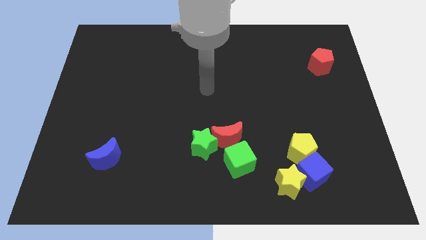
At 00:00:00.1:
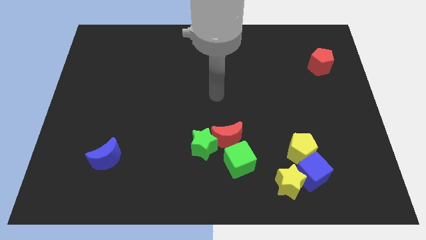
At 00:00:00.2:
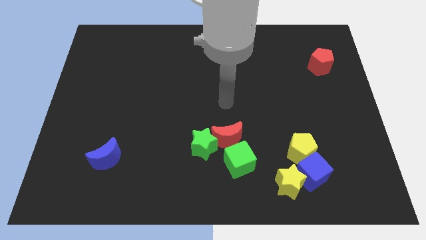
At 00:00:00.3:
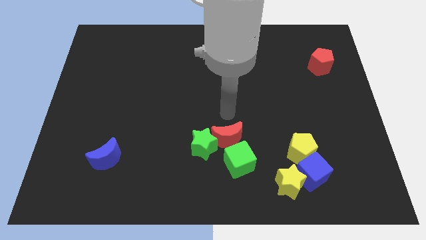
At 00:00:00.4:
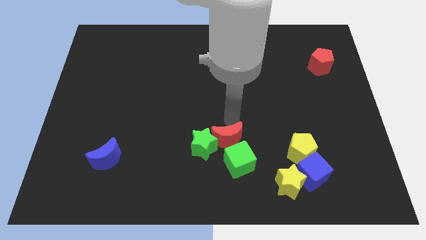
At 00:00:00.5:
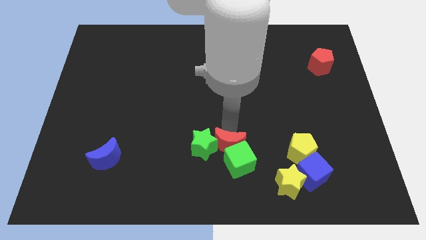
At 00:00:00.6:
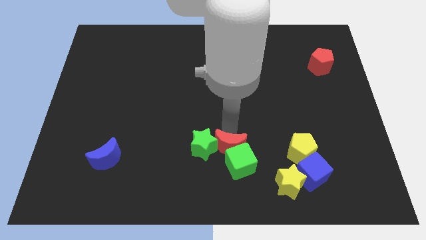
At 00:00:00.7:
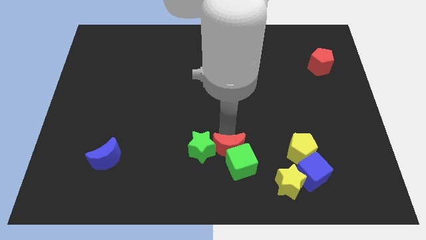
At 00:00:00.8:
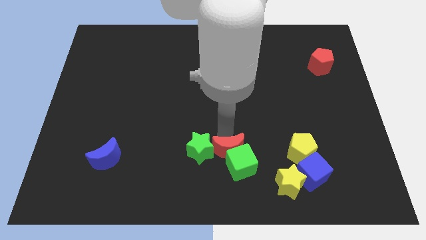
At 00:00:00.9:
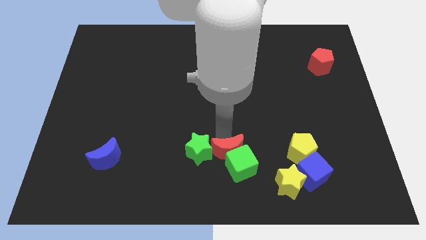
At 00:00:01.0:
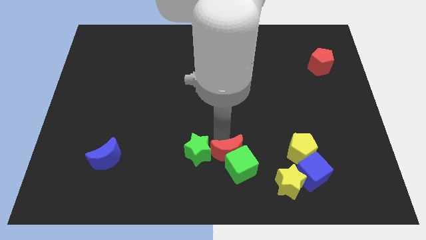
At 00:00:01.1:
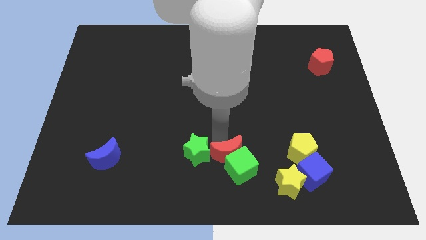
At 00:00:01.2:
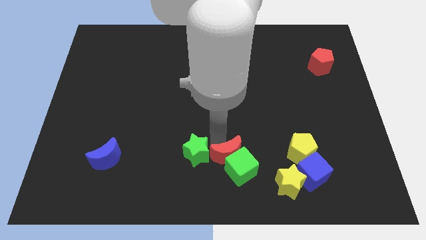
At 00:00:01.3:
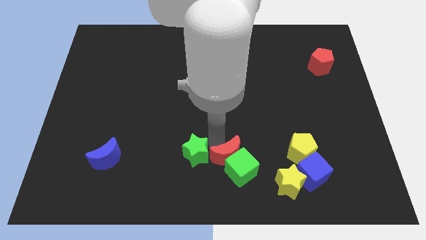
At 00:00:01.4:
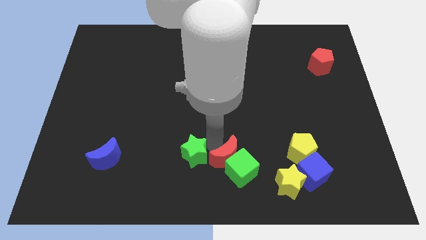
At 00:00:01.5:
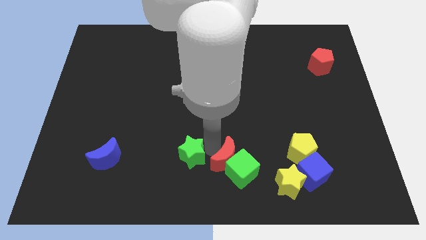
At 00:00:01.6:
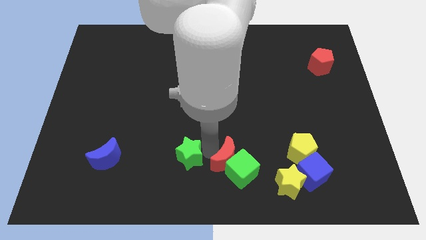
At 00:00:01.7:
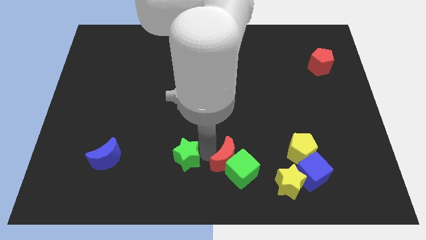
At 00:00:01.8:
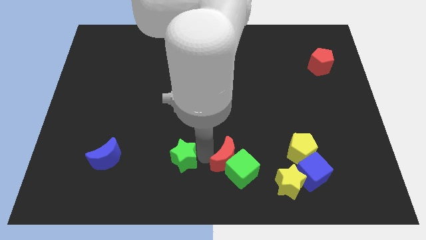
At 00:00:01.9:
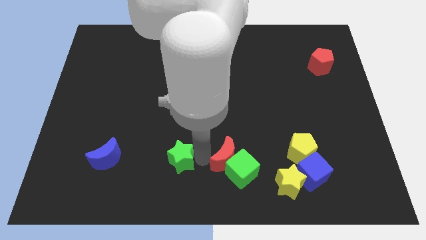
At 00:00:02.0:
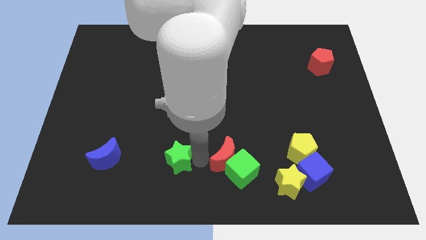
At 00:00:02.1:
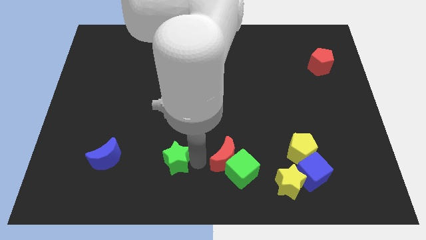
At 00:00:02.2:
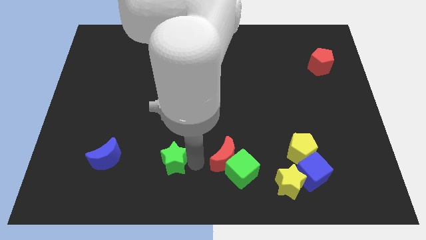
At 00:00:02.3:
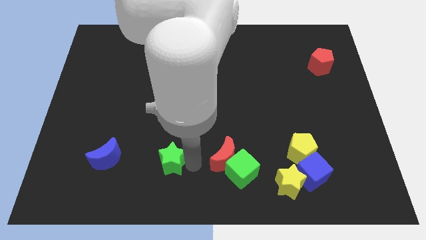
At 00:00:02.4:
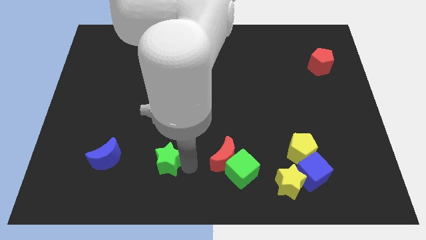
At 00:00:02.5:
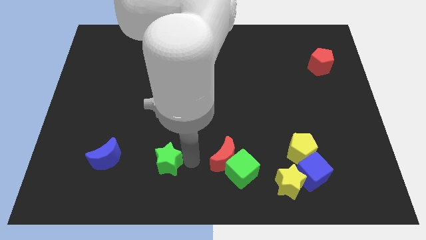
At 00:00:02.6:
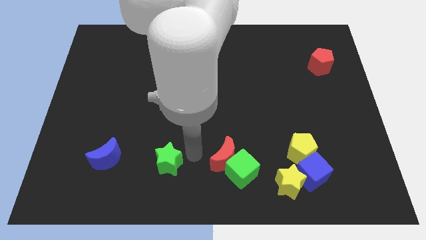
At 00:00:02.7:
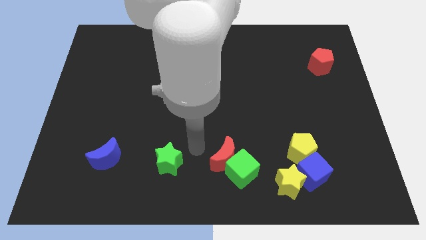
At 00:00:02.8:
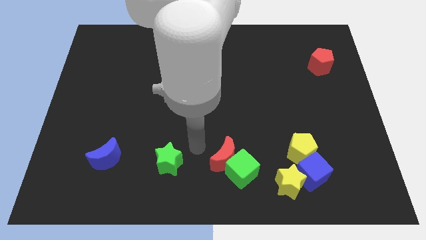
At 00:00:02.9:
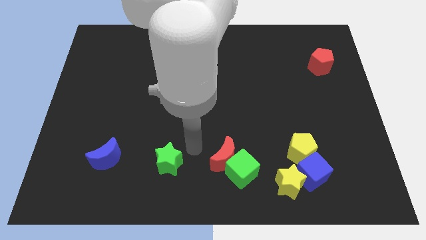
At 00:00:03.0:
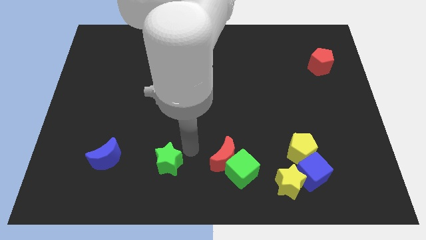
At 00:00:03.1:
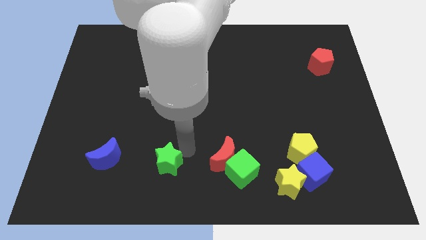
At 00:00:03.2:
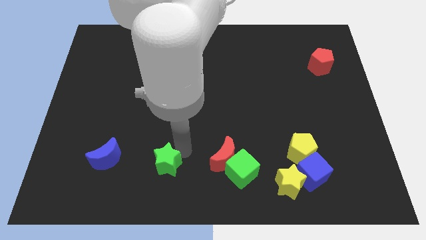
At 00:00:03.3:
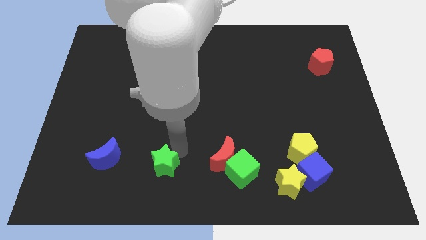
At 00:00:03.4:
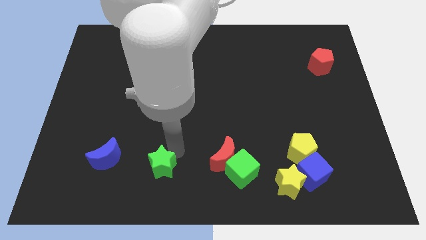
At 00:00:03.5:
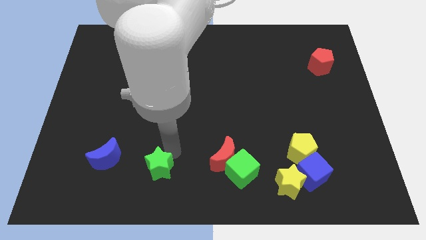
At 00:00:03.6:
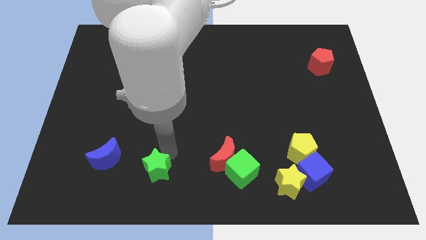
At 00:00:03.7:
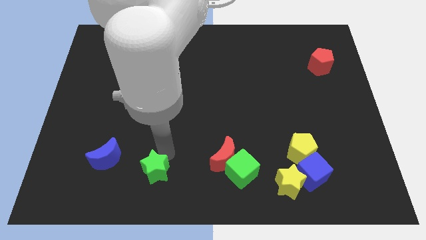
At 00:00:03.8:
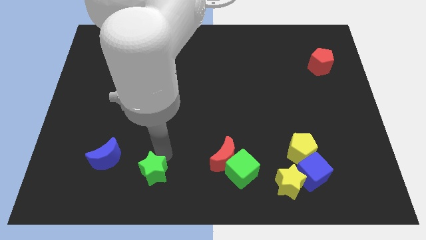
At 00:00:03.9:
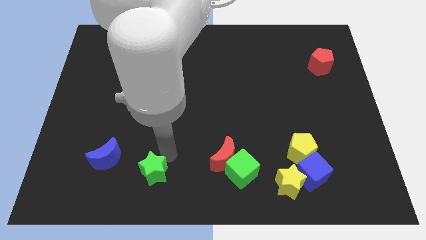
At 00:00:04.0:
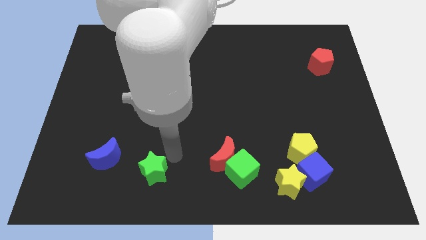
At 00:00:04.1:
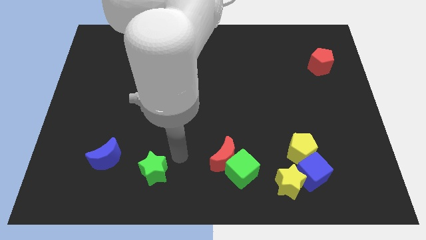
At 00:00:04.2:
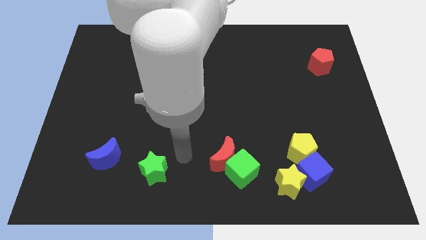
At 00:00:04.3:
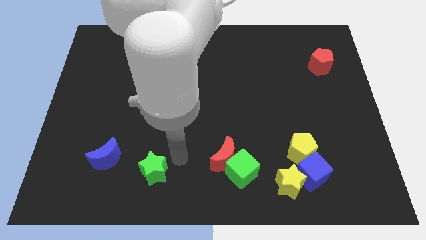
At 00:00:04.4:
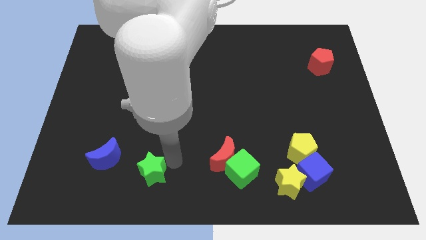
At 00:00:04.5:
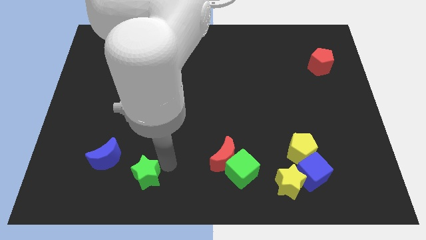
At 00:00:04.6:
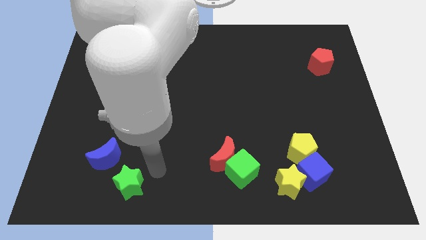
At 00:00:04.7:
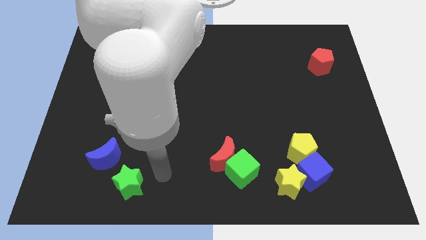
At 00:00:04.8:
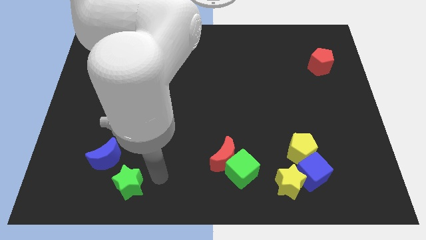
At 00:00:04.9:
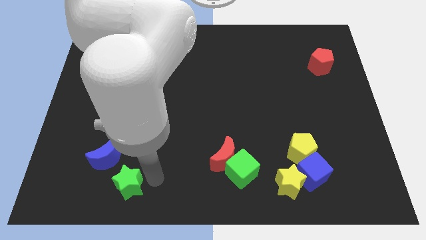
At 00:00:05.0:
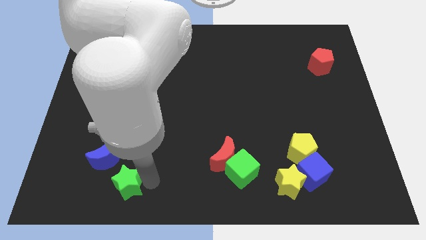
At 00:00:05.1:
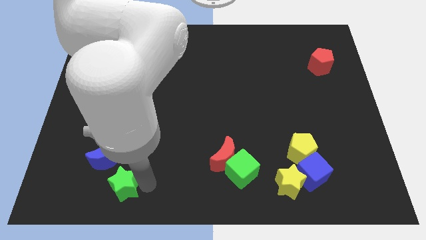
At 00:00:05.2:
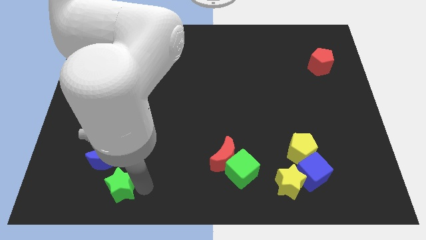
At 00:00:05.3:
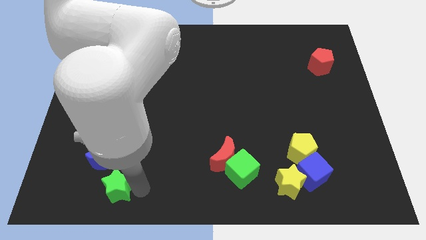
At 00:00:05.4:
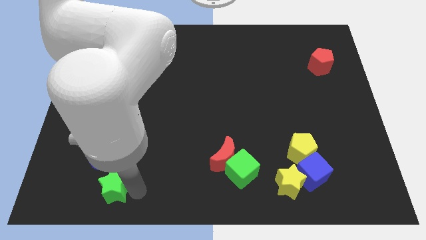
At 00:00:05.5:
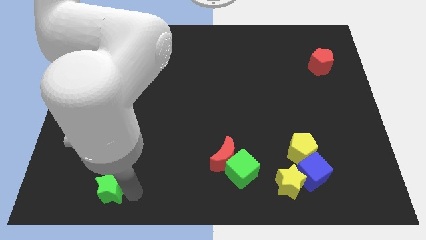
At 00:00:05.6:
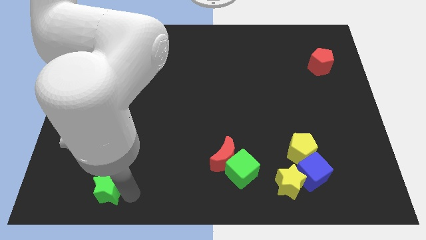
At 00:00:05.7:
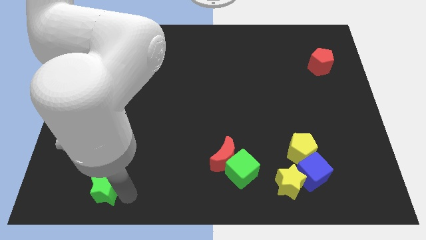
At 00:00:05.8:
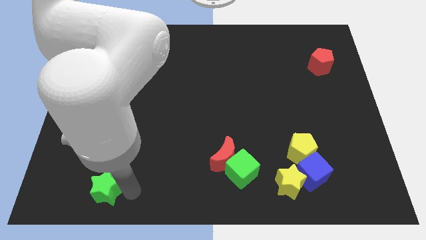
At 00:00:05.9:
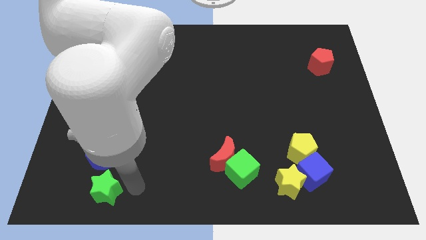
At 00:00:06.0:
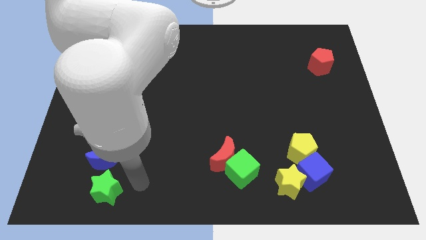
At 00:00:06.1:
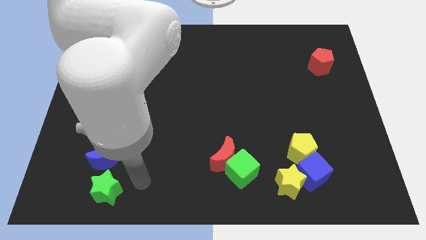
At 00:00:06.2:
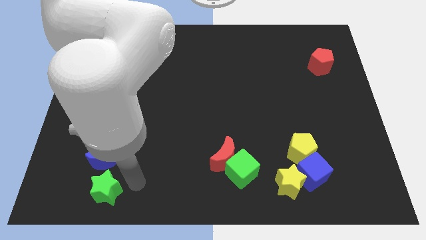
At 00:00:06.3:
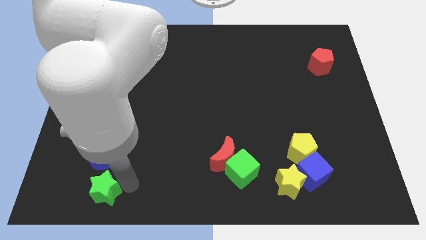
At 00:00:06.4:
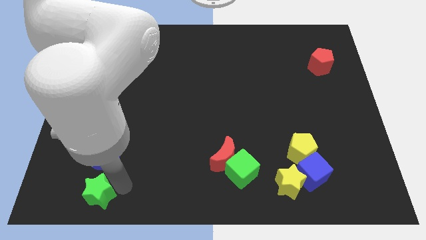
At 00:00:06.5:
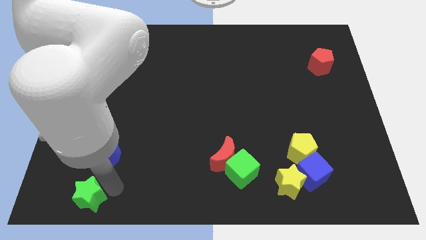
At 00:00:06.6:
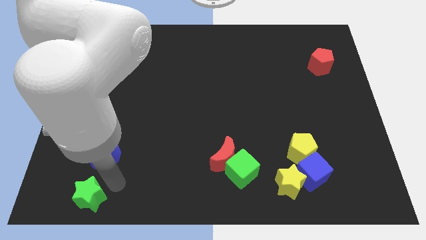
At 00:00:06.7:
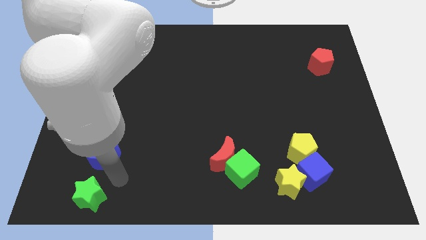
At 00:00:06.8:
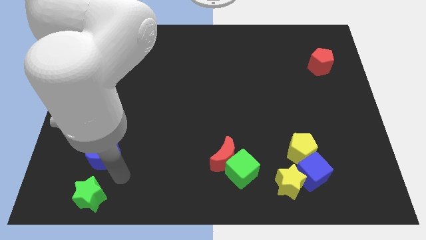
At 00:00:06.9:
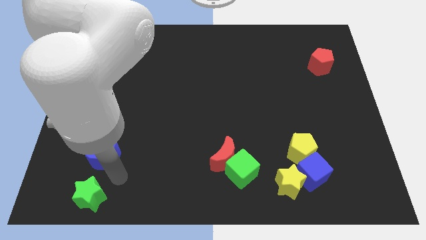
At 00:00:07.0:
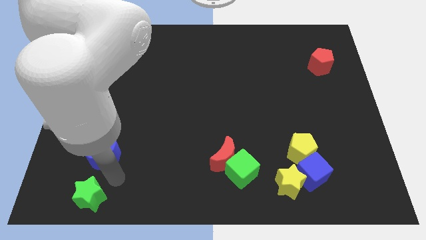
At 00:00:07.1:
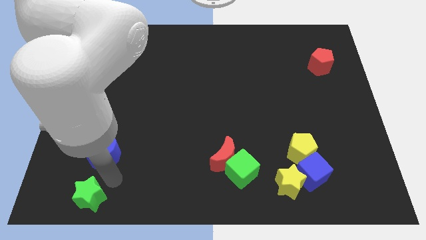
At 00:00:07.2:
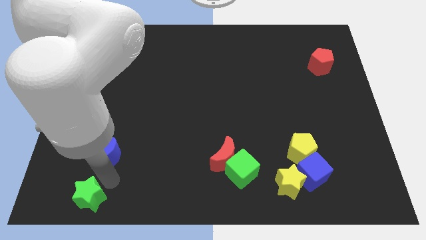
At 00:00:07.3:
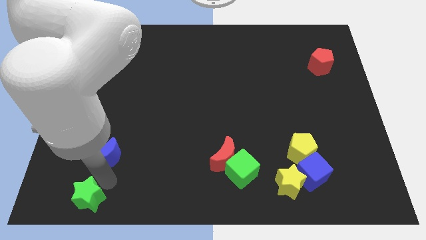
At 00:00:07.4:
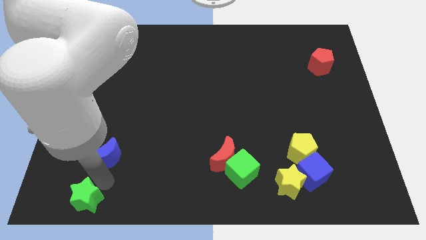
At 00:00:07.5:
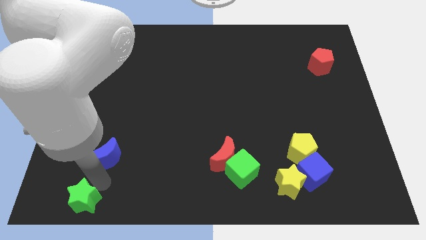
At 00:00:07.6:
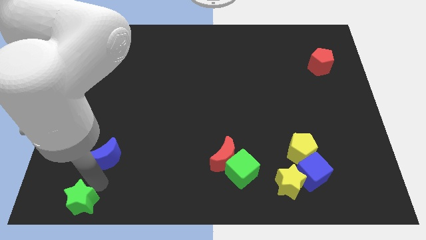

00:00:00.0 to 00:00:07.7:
move the green star to the lower left corner
